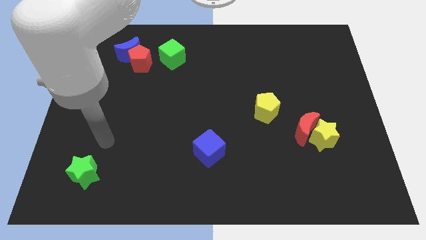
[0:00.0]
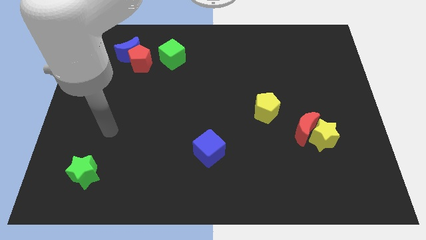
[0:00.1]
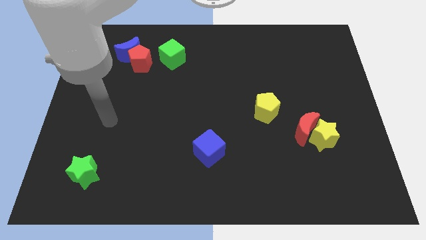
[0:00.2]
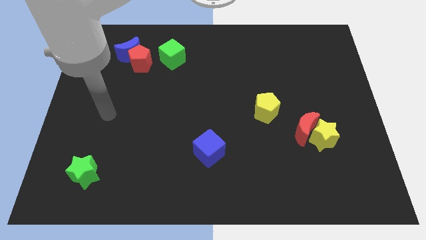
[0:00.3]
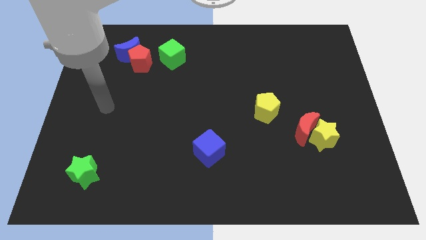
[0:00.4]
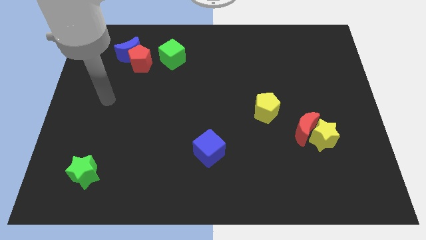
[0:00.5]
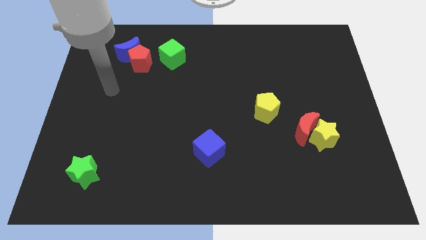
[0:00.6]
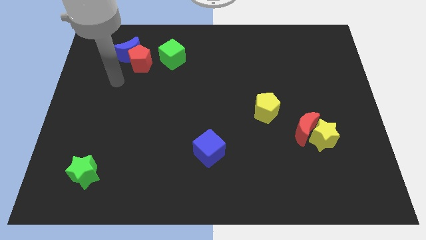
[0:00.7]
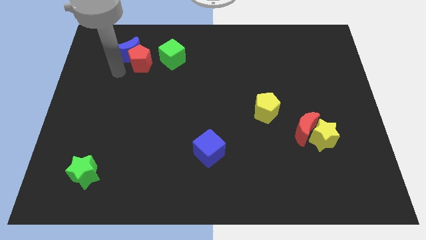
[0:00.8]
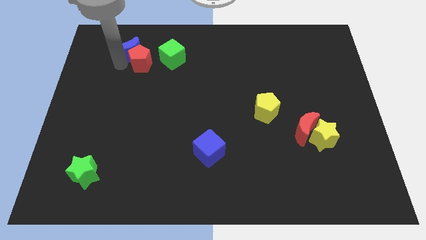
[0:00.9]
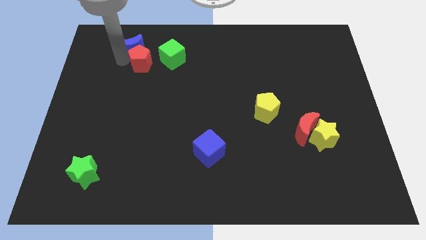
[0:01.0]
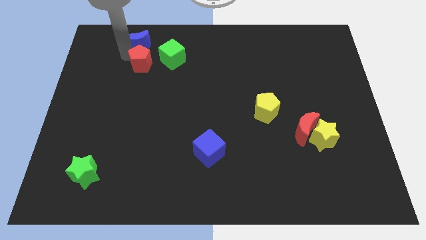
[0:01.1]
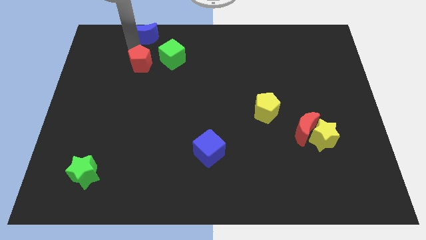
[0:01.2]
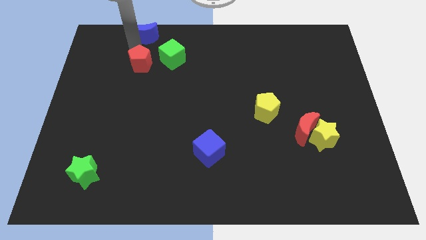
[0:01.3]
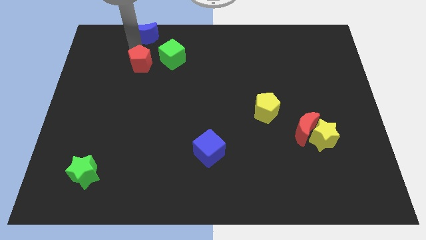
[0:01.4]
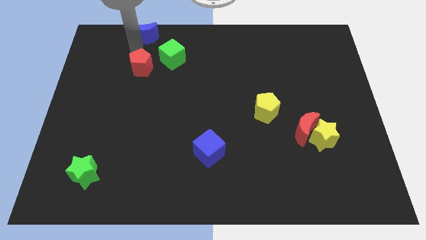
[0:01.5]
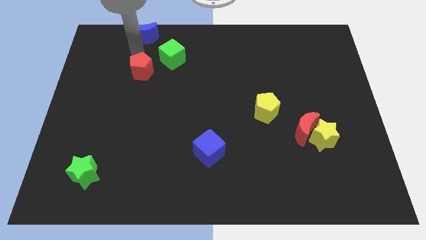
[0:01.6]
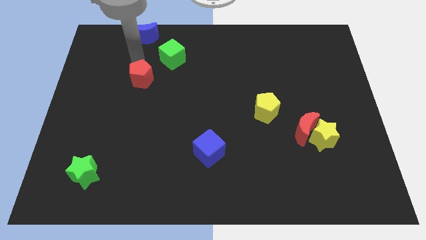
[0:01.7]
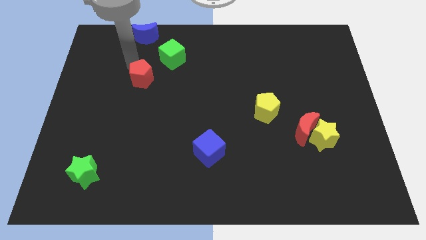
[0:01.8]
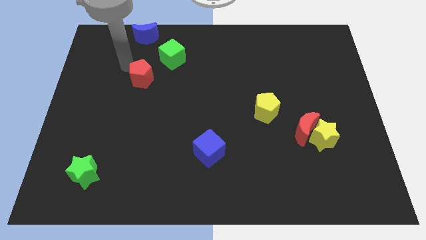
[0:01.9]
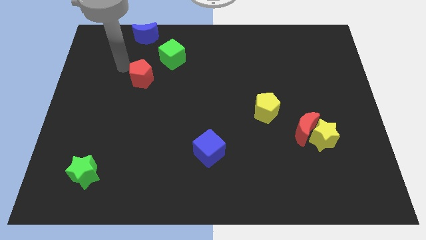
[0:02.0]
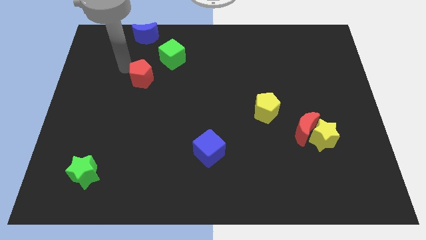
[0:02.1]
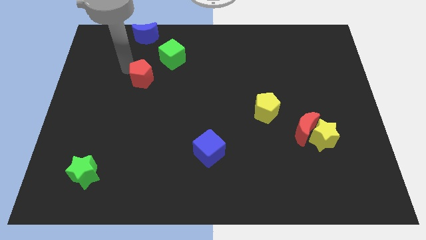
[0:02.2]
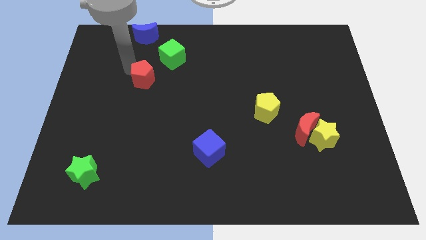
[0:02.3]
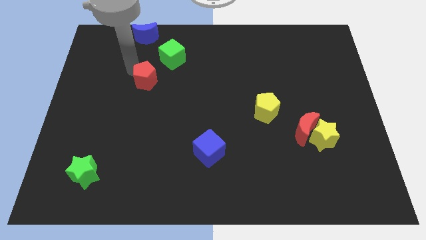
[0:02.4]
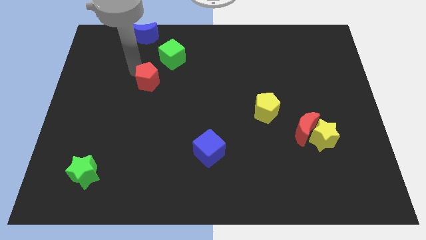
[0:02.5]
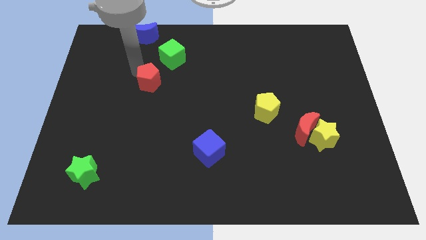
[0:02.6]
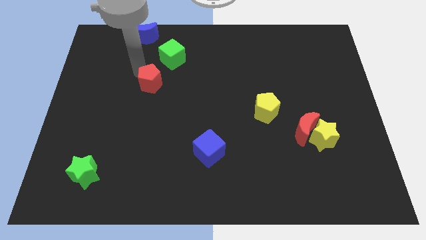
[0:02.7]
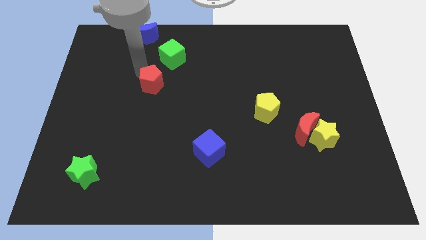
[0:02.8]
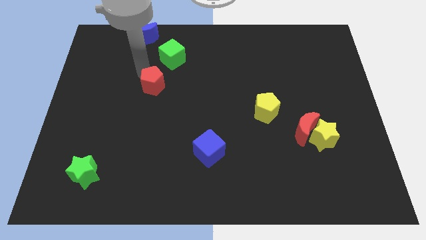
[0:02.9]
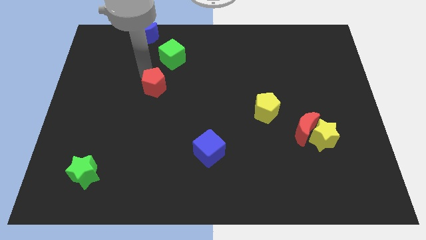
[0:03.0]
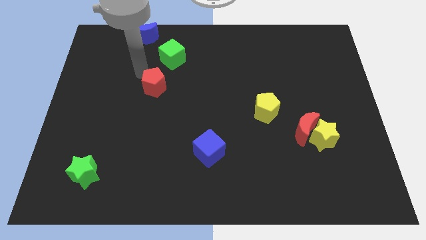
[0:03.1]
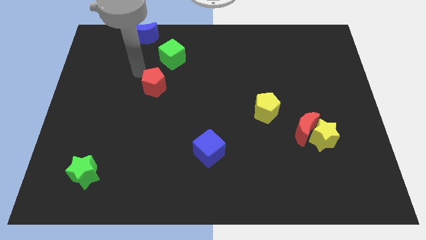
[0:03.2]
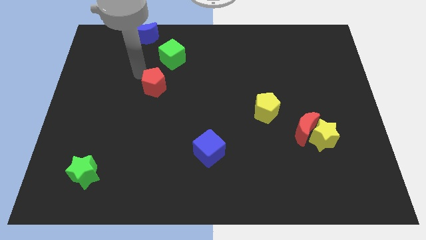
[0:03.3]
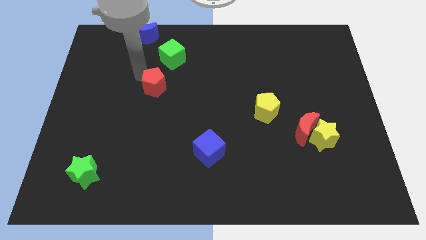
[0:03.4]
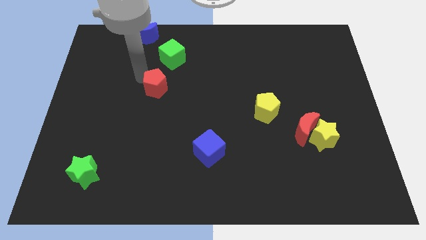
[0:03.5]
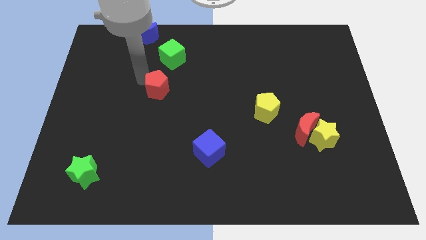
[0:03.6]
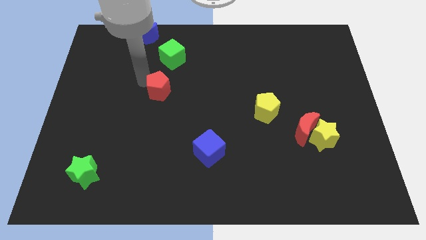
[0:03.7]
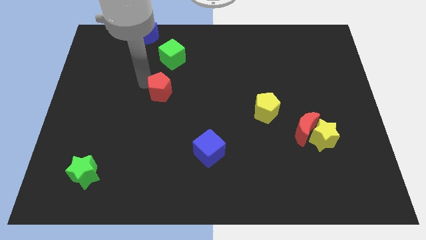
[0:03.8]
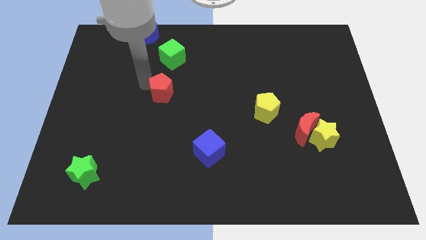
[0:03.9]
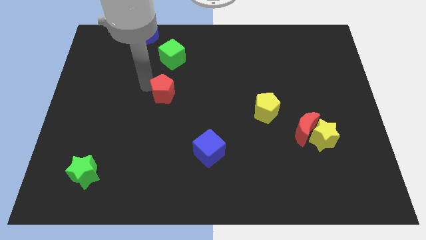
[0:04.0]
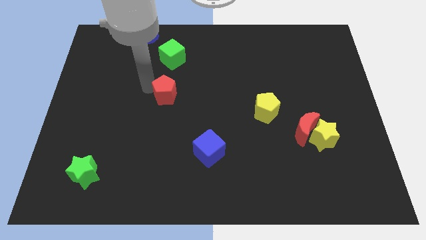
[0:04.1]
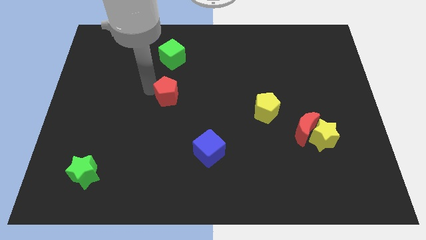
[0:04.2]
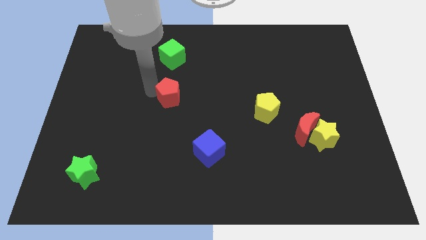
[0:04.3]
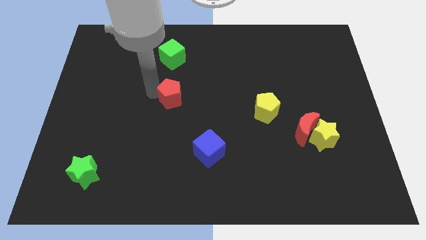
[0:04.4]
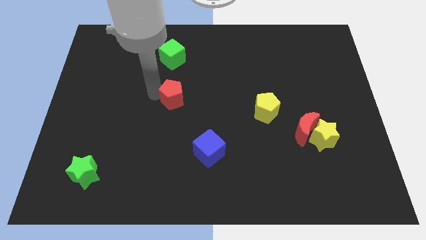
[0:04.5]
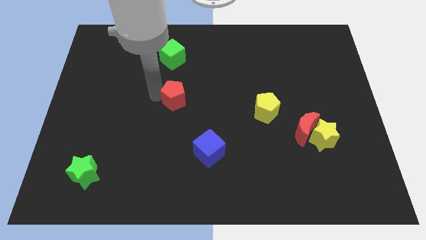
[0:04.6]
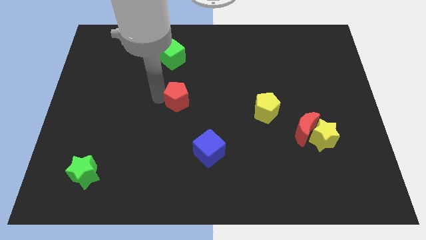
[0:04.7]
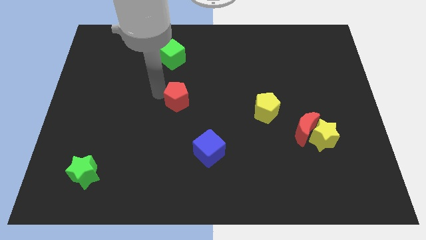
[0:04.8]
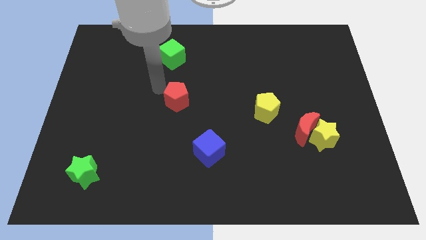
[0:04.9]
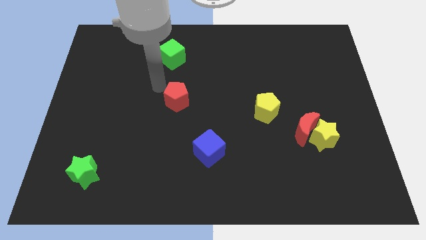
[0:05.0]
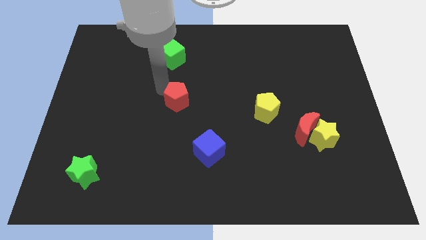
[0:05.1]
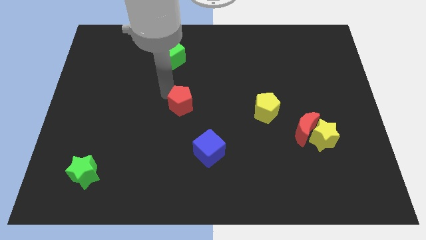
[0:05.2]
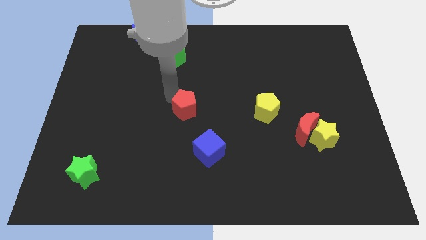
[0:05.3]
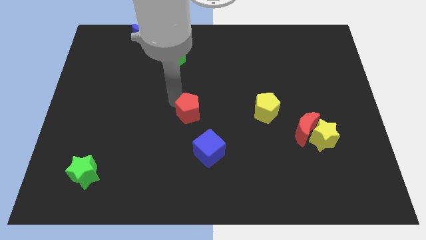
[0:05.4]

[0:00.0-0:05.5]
slide the red pentagon down and then to the right

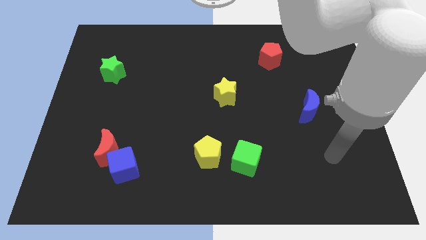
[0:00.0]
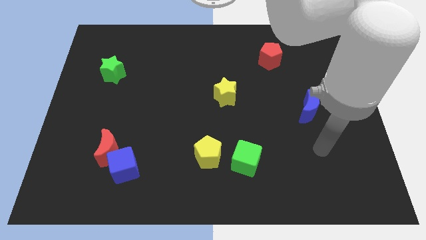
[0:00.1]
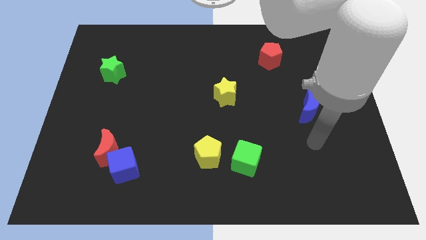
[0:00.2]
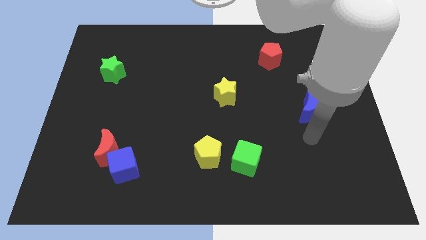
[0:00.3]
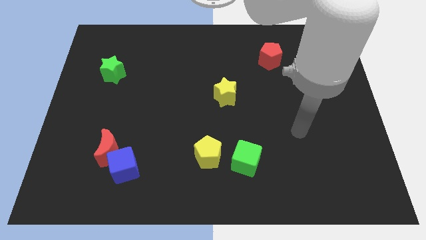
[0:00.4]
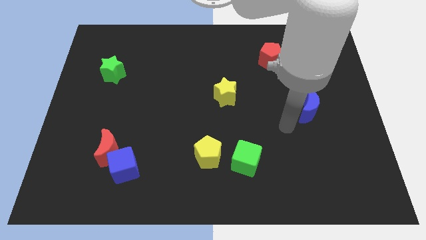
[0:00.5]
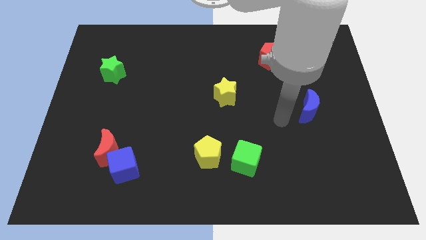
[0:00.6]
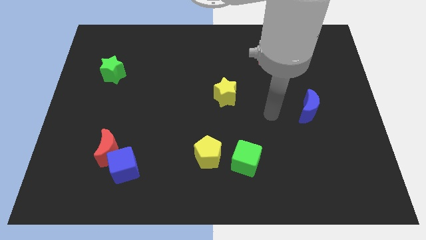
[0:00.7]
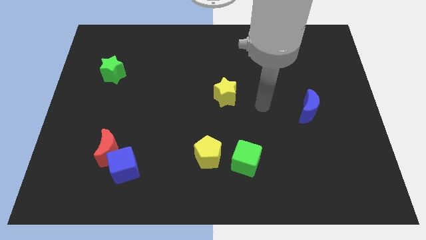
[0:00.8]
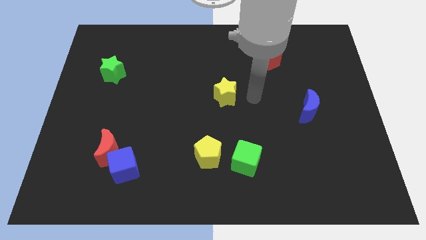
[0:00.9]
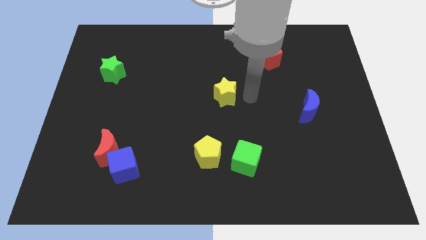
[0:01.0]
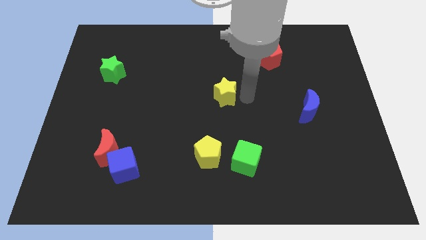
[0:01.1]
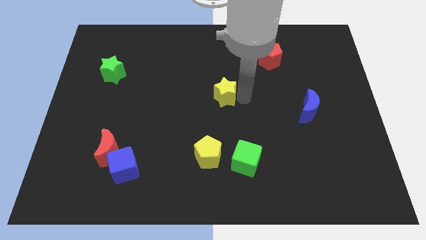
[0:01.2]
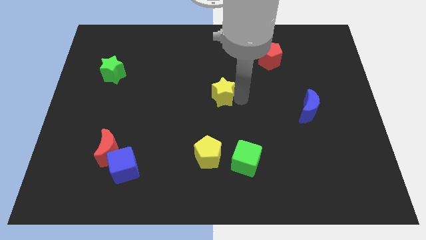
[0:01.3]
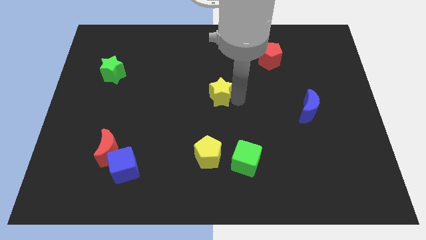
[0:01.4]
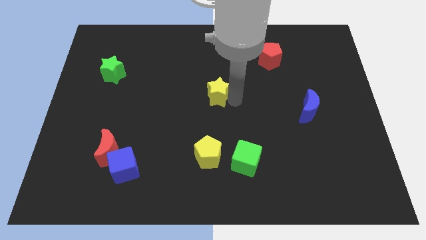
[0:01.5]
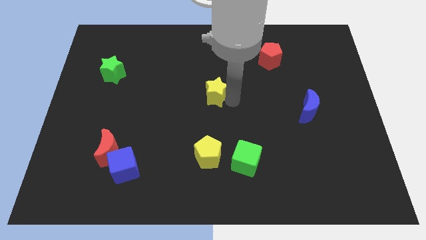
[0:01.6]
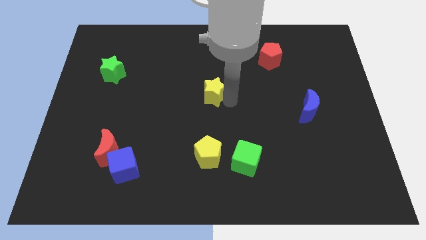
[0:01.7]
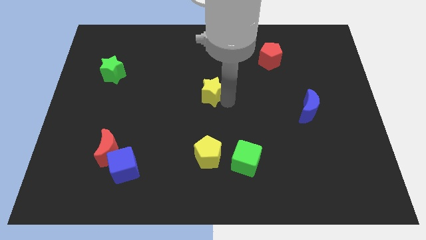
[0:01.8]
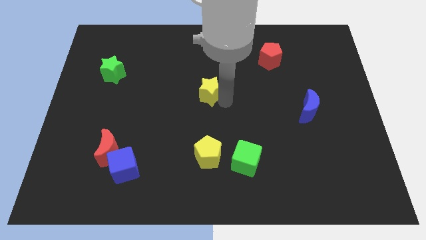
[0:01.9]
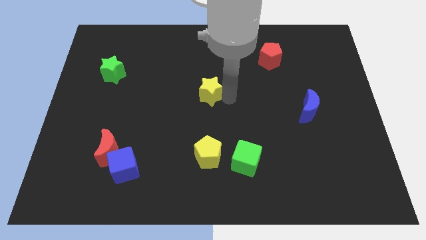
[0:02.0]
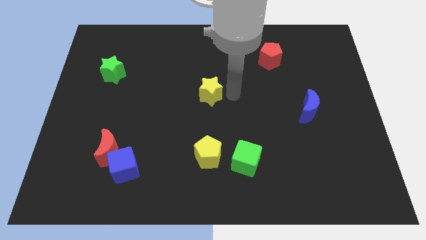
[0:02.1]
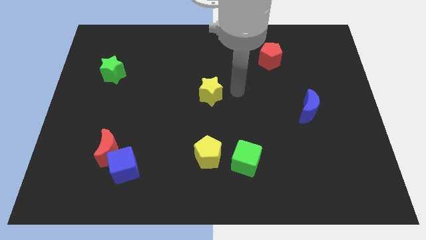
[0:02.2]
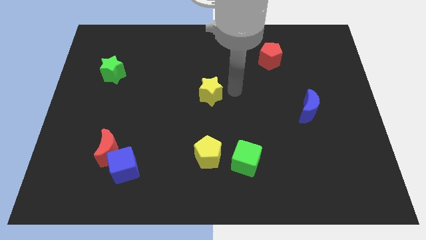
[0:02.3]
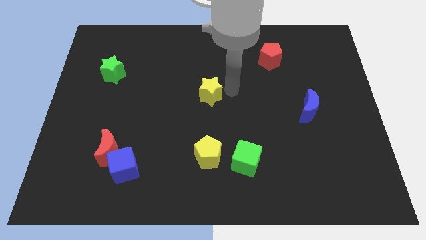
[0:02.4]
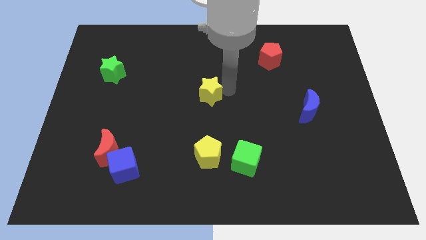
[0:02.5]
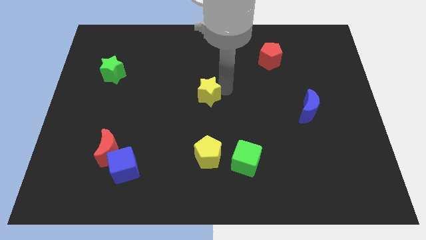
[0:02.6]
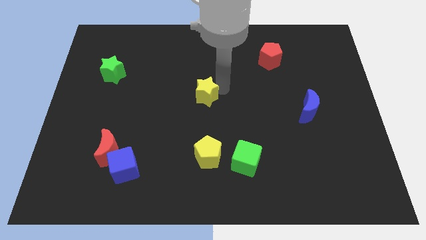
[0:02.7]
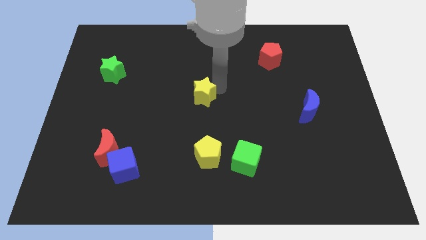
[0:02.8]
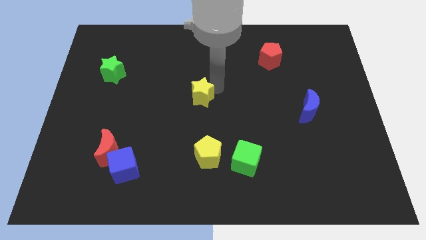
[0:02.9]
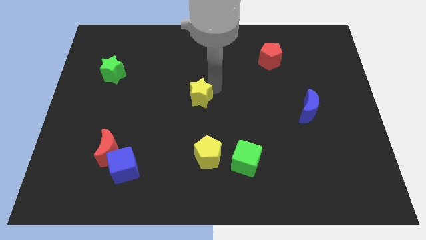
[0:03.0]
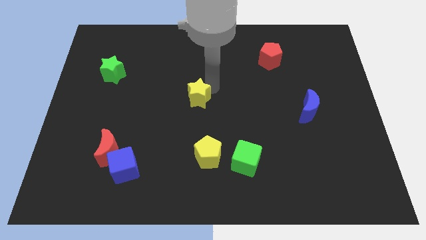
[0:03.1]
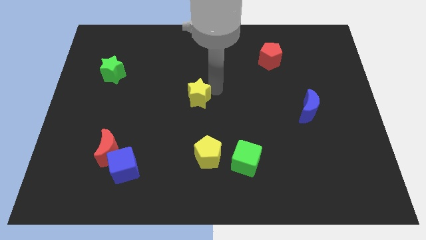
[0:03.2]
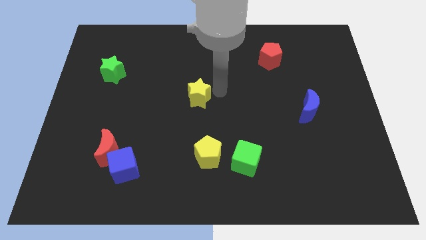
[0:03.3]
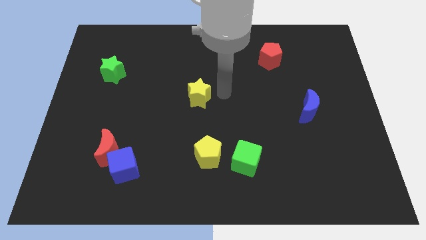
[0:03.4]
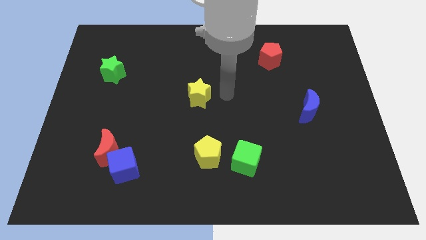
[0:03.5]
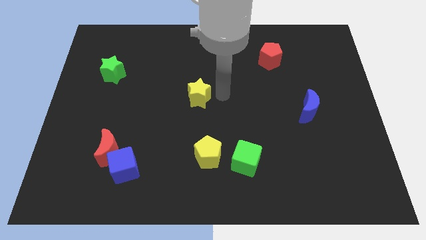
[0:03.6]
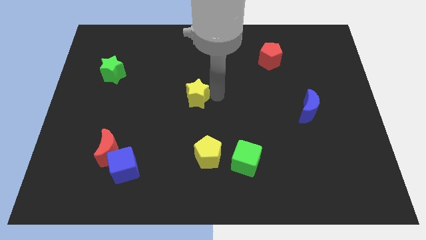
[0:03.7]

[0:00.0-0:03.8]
push the yellow star a little bit to the left
